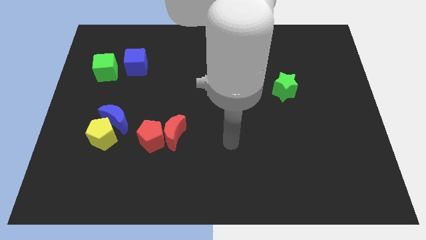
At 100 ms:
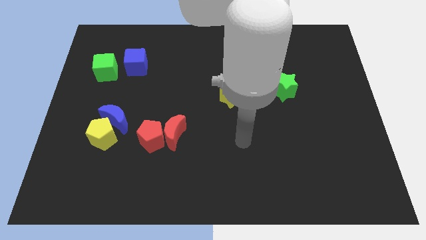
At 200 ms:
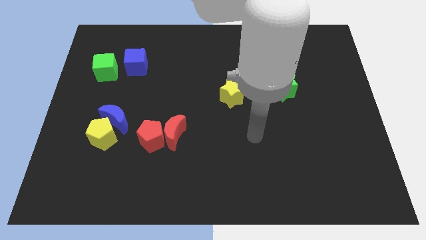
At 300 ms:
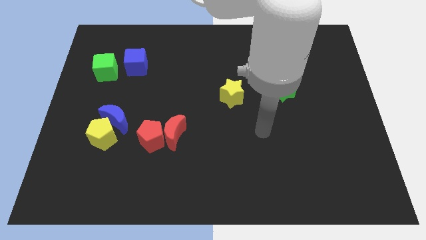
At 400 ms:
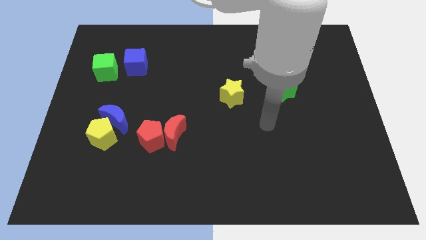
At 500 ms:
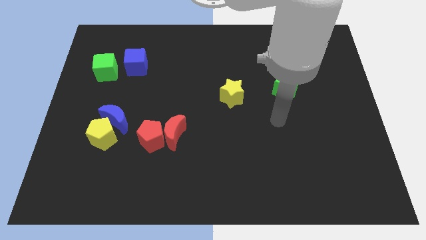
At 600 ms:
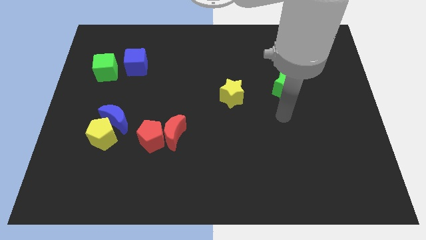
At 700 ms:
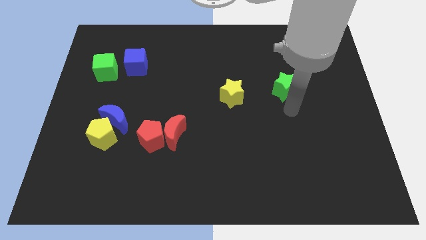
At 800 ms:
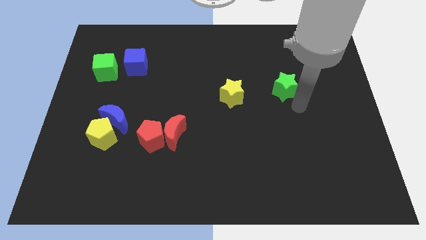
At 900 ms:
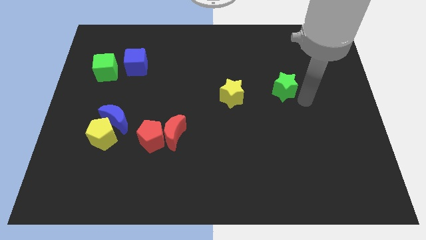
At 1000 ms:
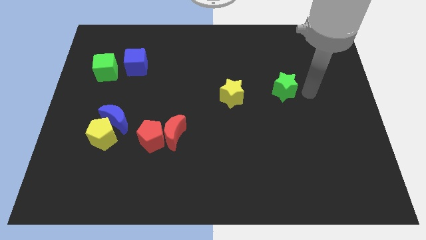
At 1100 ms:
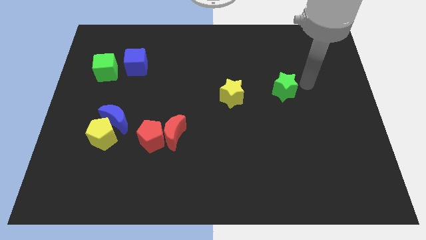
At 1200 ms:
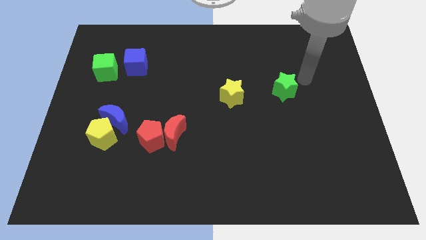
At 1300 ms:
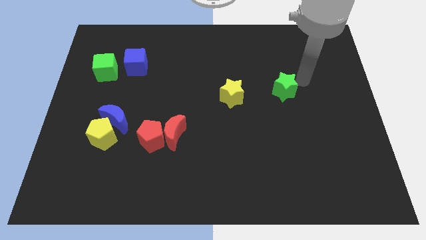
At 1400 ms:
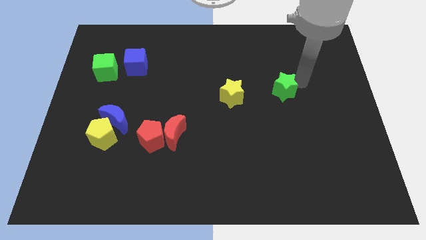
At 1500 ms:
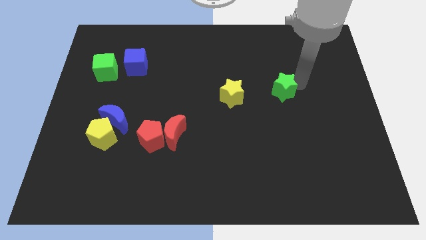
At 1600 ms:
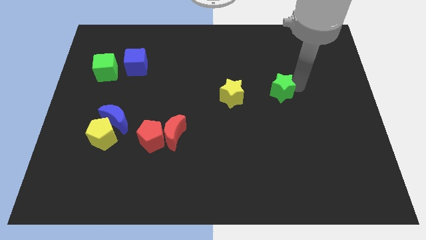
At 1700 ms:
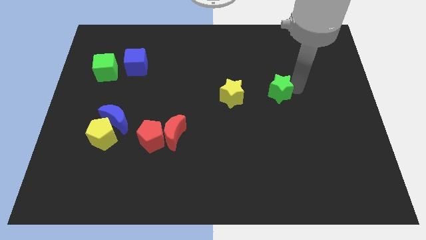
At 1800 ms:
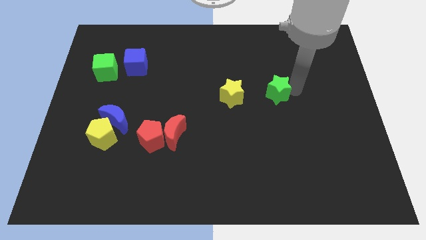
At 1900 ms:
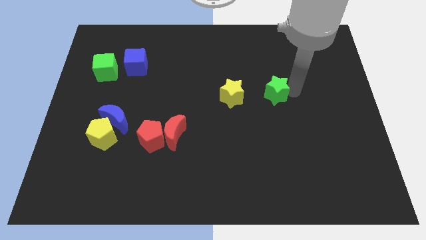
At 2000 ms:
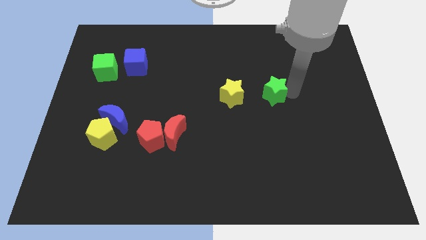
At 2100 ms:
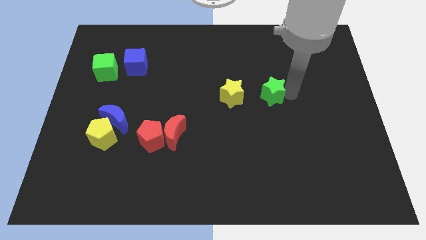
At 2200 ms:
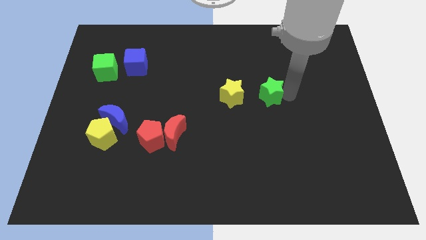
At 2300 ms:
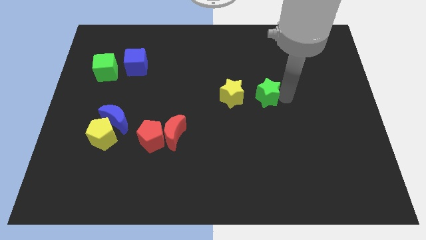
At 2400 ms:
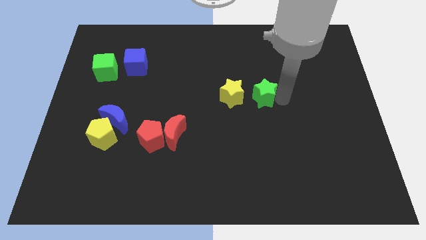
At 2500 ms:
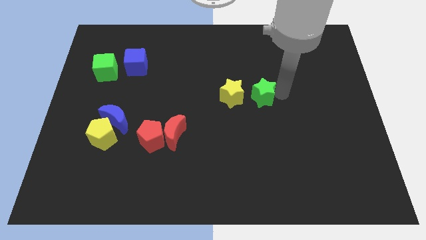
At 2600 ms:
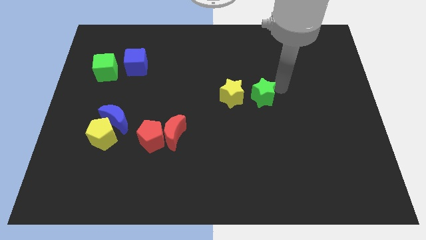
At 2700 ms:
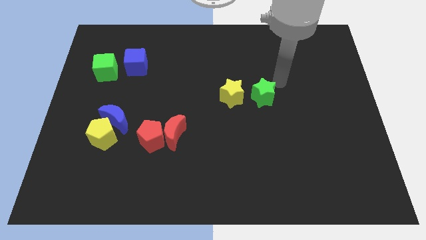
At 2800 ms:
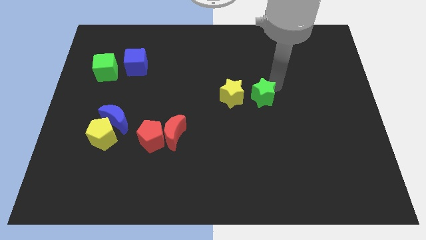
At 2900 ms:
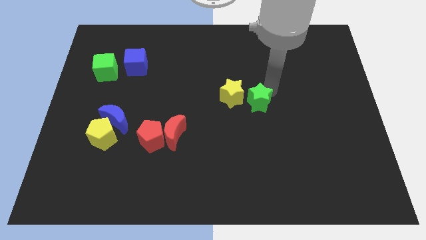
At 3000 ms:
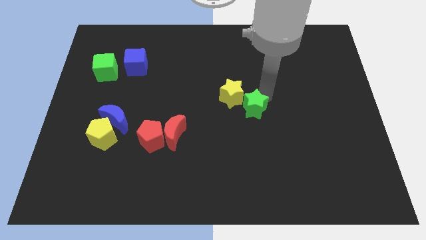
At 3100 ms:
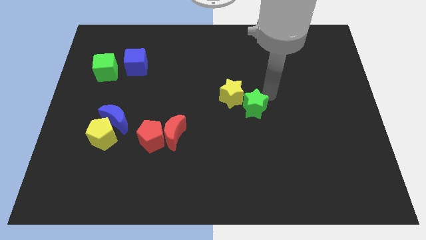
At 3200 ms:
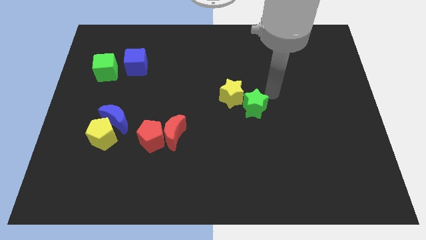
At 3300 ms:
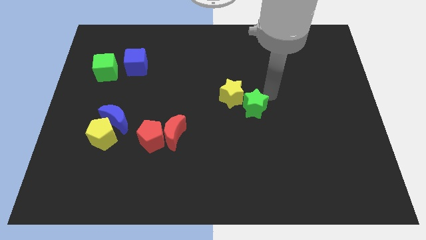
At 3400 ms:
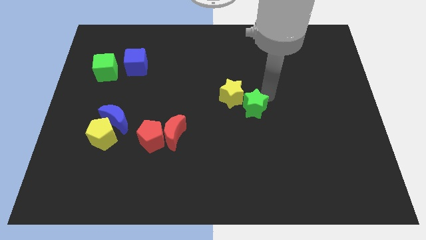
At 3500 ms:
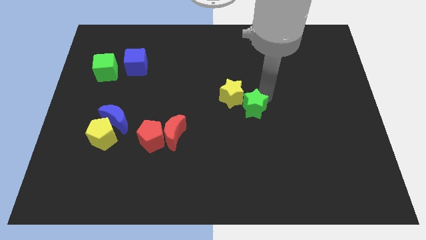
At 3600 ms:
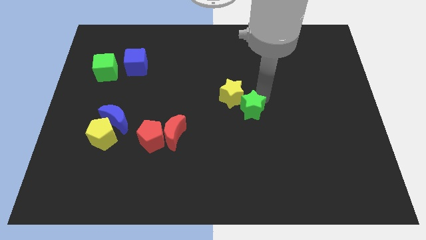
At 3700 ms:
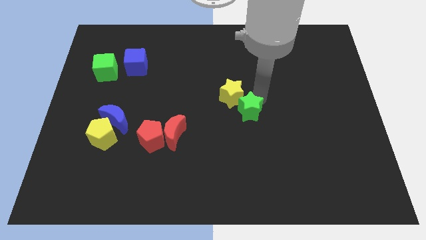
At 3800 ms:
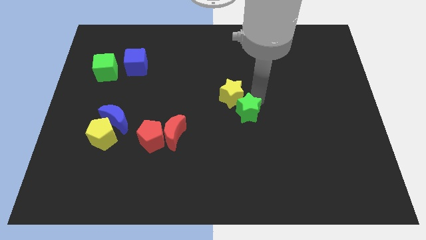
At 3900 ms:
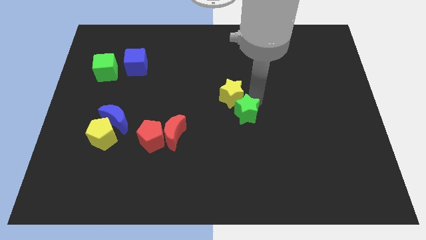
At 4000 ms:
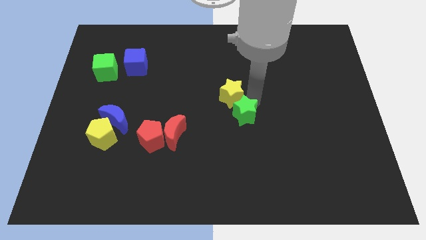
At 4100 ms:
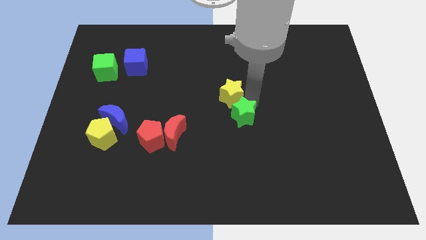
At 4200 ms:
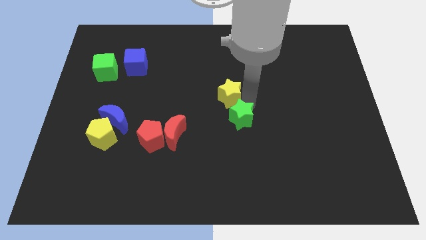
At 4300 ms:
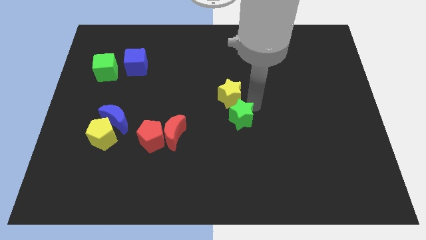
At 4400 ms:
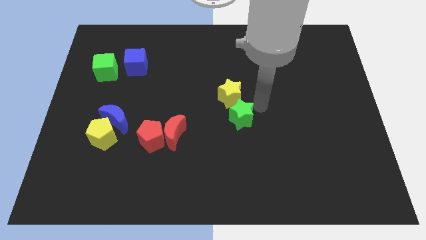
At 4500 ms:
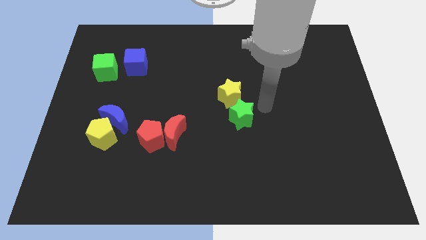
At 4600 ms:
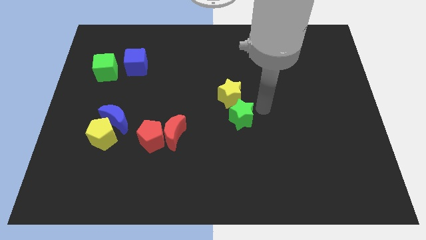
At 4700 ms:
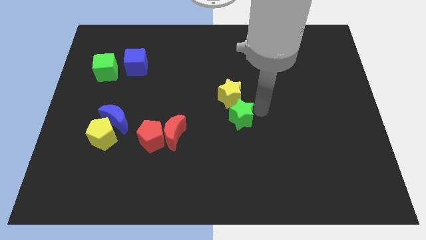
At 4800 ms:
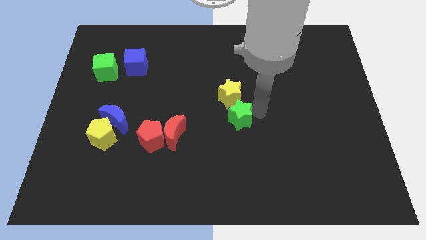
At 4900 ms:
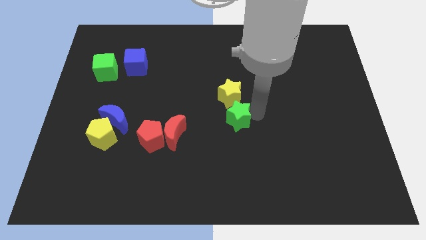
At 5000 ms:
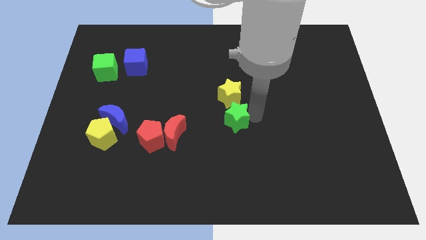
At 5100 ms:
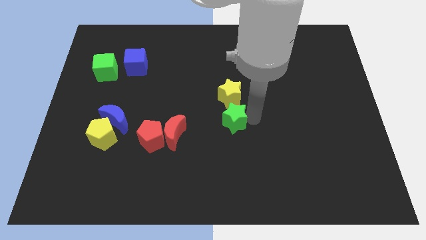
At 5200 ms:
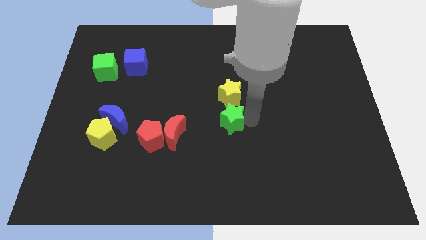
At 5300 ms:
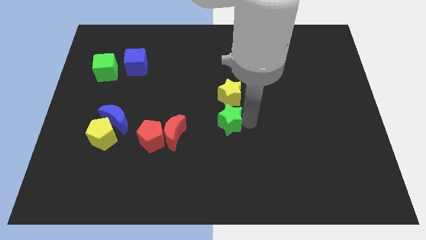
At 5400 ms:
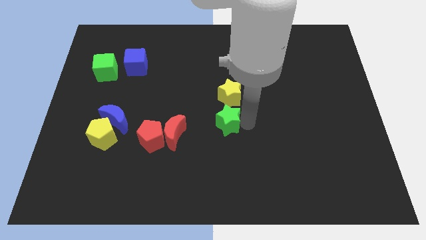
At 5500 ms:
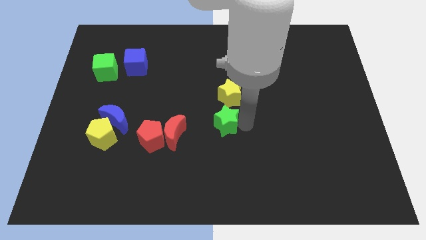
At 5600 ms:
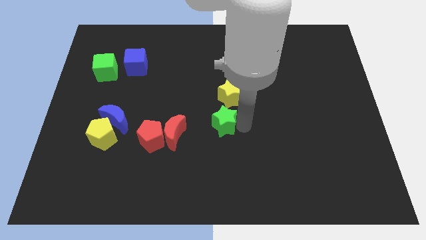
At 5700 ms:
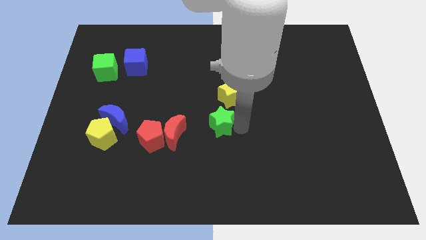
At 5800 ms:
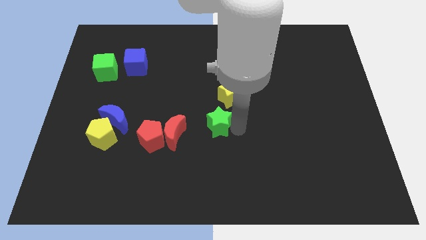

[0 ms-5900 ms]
move the green star right of the red pentagon

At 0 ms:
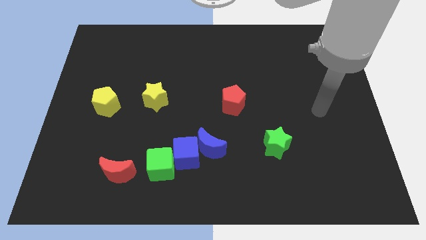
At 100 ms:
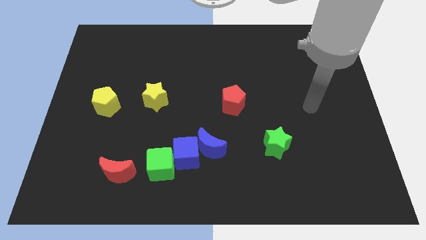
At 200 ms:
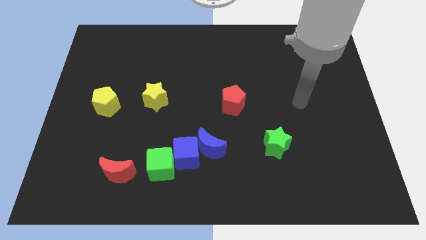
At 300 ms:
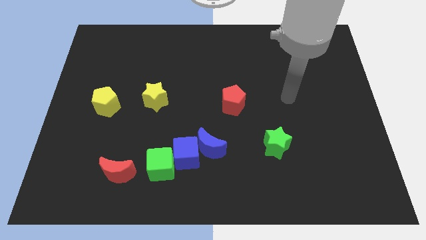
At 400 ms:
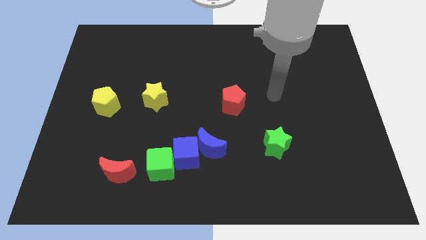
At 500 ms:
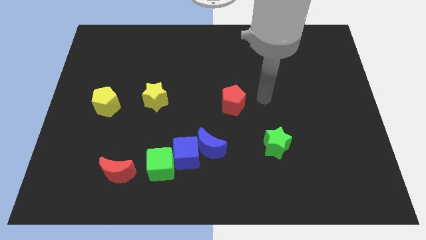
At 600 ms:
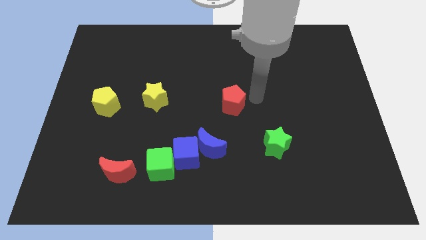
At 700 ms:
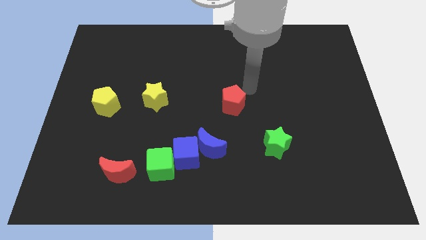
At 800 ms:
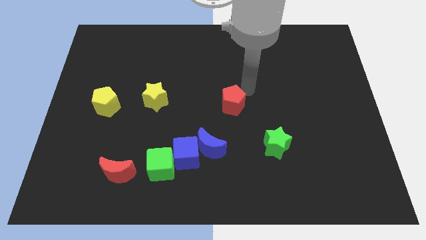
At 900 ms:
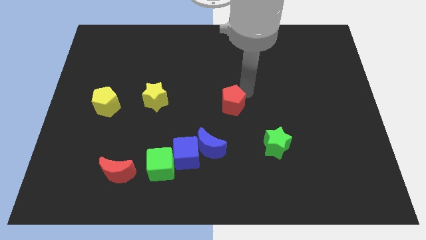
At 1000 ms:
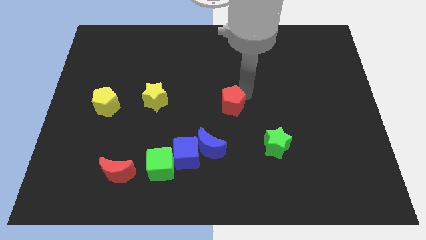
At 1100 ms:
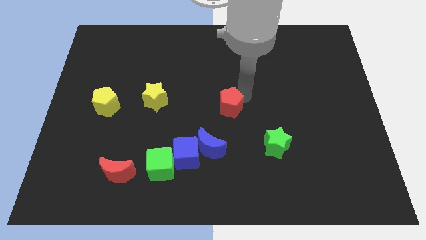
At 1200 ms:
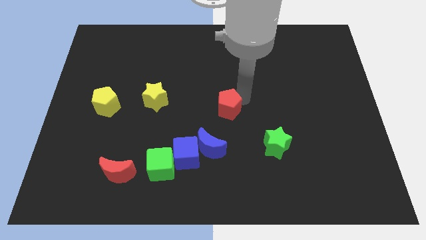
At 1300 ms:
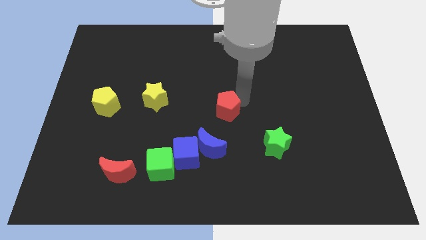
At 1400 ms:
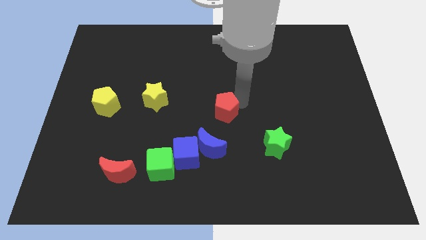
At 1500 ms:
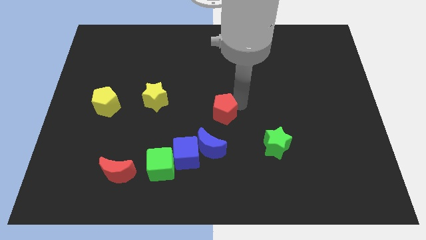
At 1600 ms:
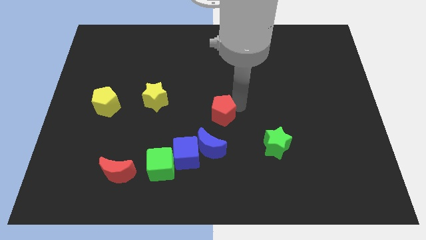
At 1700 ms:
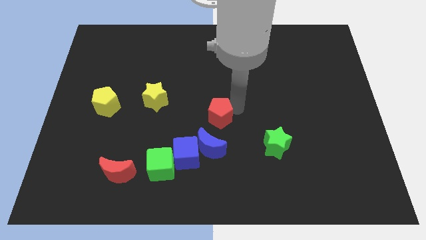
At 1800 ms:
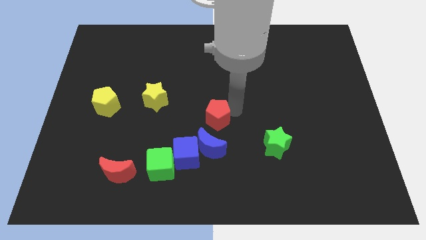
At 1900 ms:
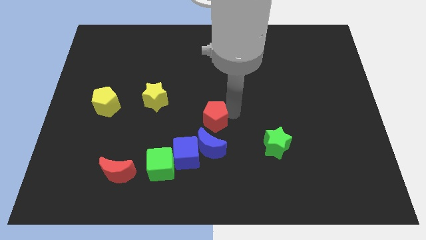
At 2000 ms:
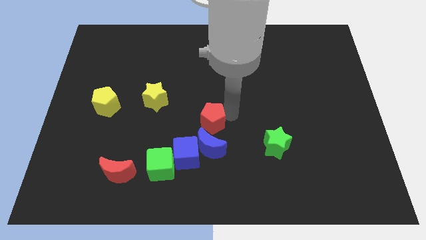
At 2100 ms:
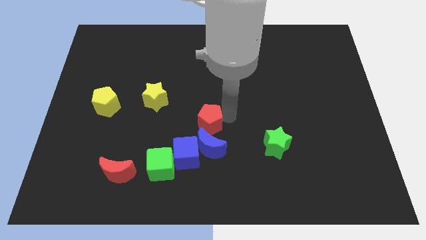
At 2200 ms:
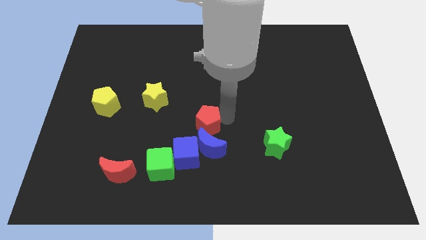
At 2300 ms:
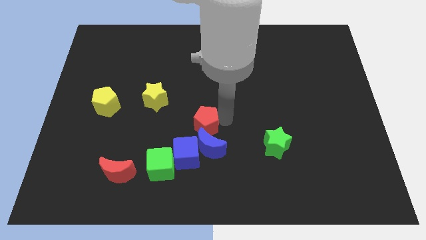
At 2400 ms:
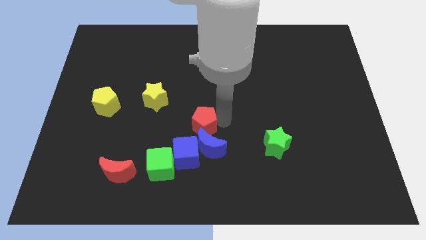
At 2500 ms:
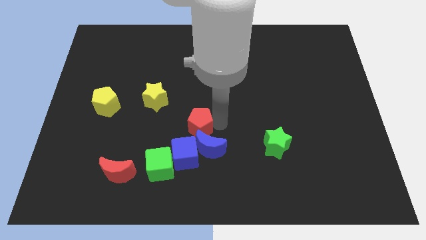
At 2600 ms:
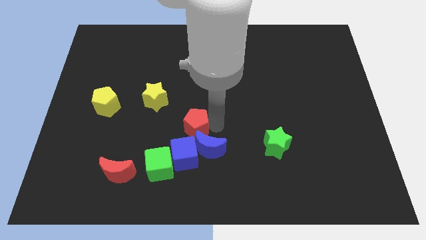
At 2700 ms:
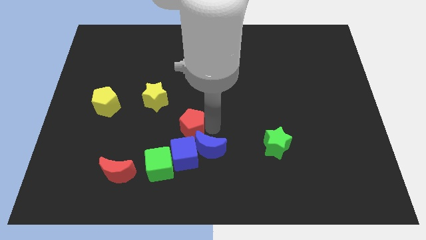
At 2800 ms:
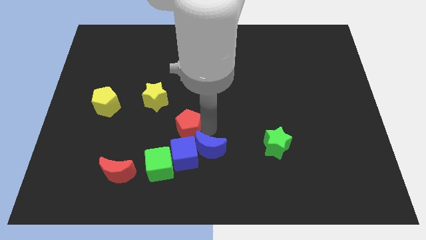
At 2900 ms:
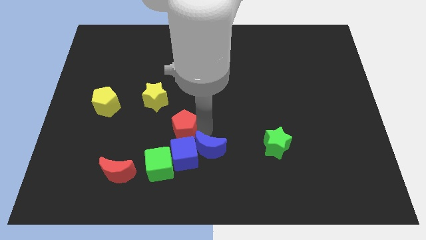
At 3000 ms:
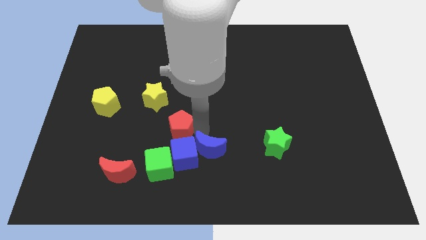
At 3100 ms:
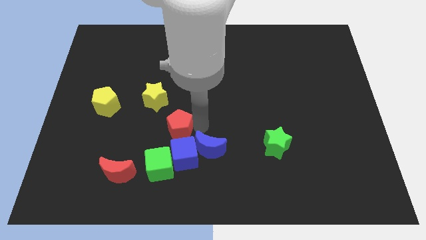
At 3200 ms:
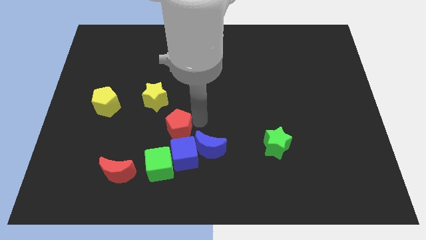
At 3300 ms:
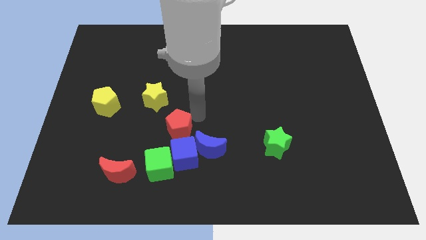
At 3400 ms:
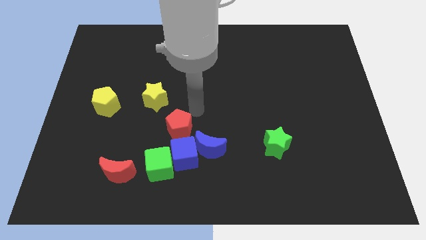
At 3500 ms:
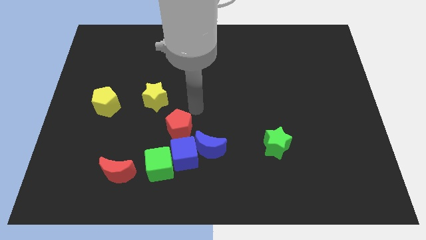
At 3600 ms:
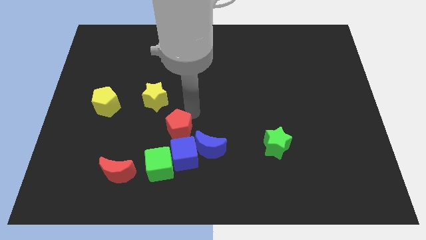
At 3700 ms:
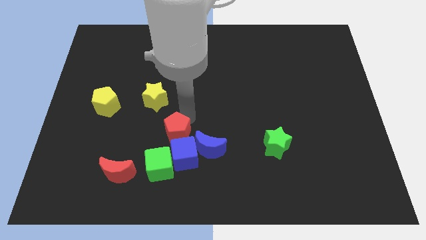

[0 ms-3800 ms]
move the red pentagon just left of the blue moon
